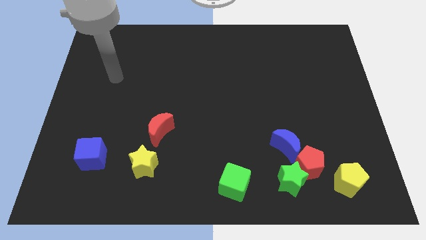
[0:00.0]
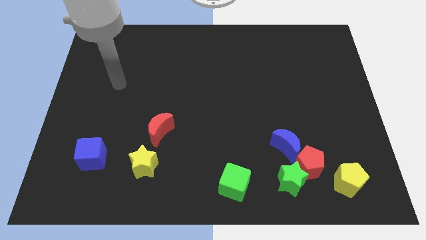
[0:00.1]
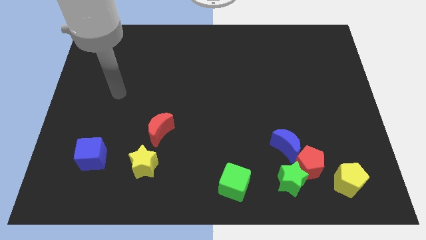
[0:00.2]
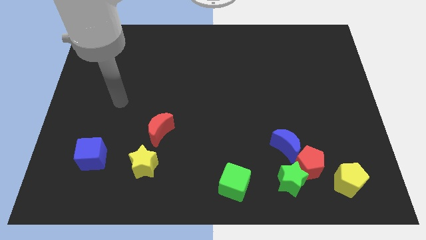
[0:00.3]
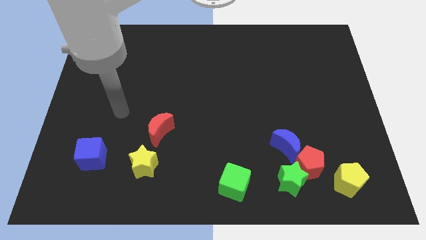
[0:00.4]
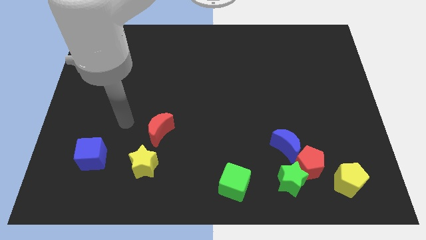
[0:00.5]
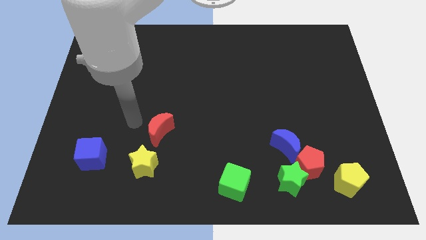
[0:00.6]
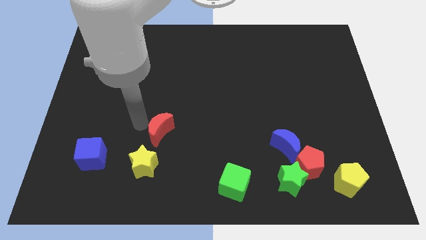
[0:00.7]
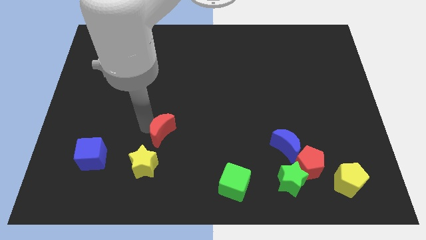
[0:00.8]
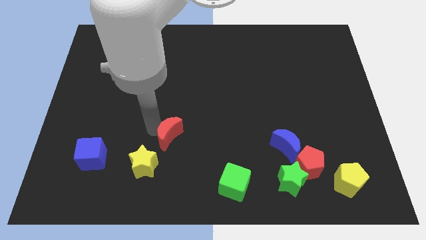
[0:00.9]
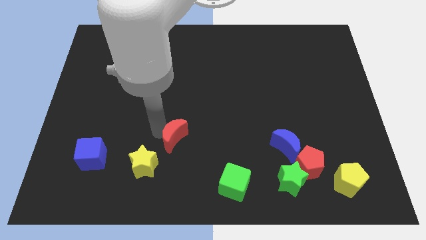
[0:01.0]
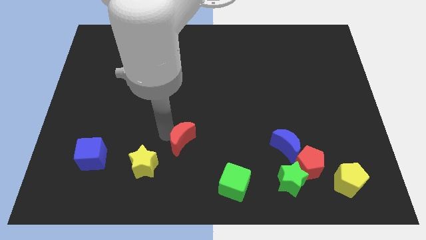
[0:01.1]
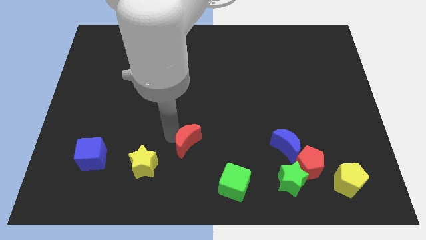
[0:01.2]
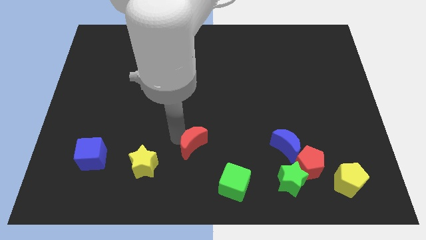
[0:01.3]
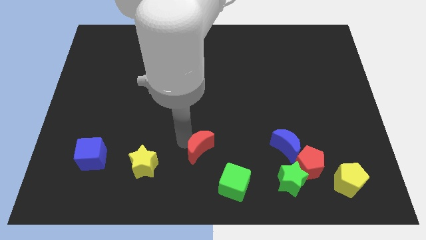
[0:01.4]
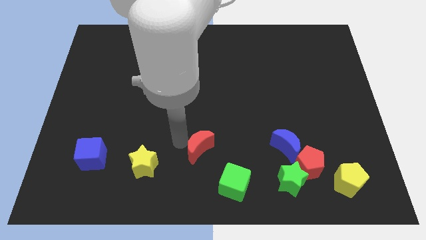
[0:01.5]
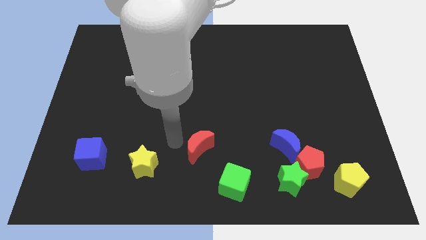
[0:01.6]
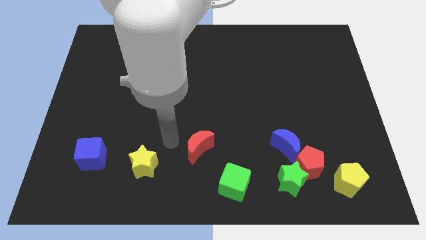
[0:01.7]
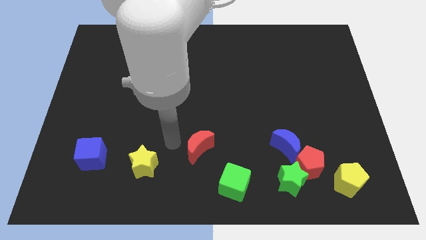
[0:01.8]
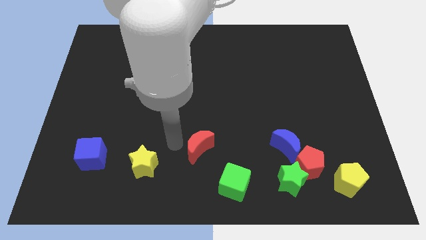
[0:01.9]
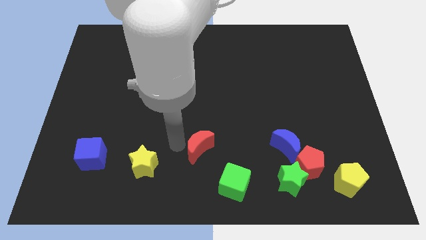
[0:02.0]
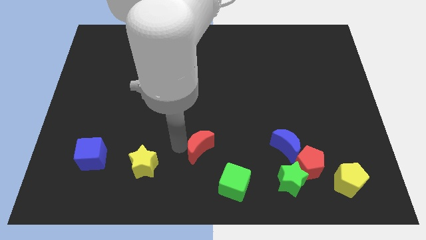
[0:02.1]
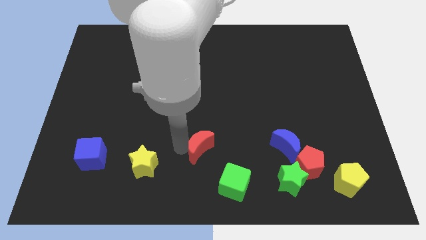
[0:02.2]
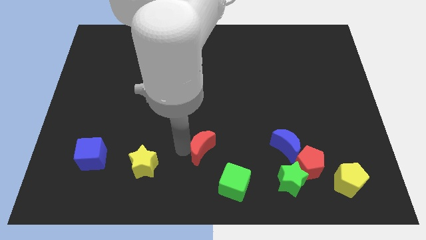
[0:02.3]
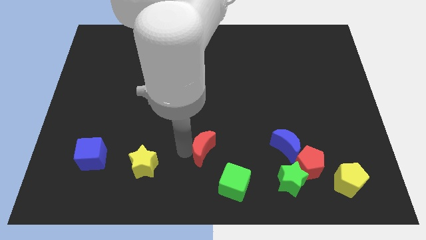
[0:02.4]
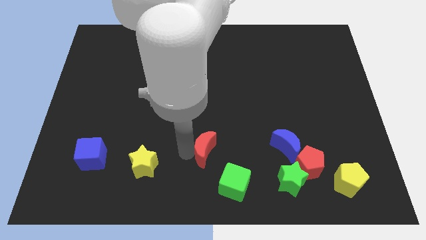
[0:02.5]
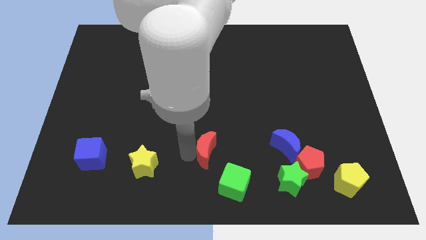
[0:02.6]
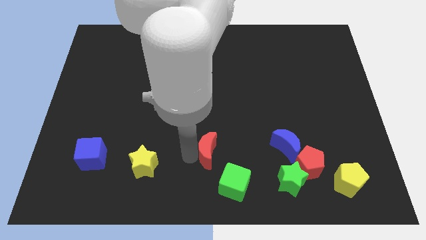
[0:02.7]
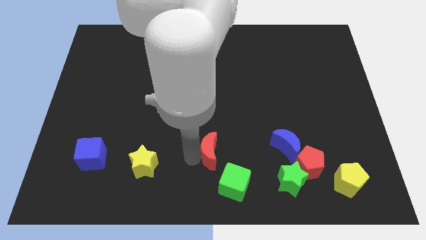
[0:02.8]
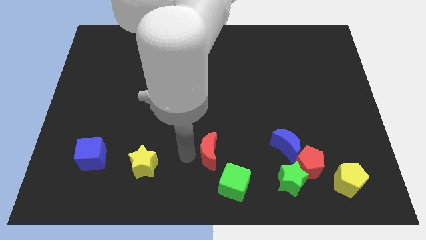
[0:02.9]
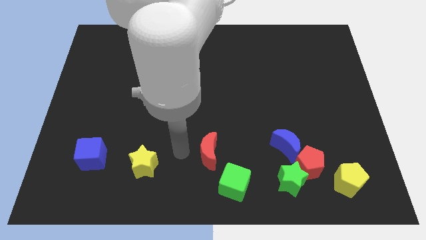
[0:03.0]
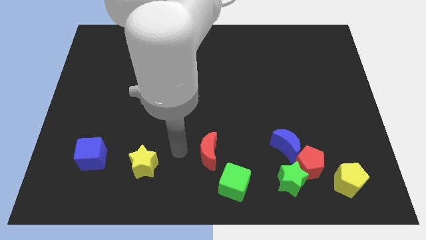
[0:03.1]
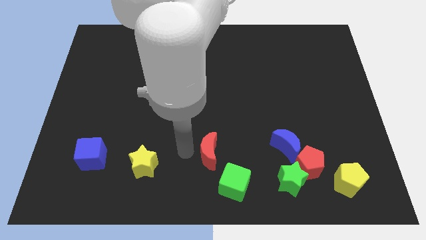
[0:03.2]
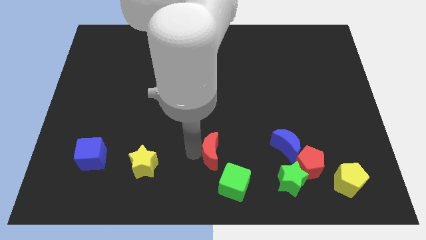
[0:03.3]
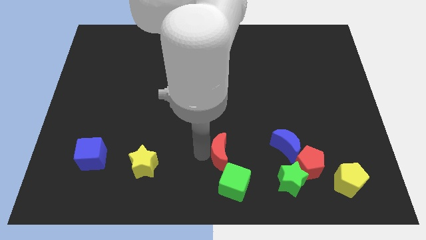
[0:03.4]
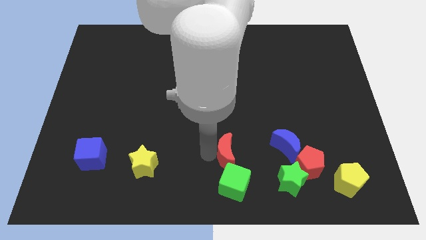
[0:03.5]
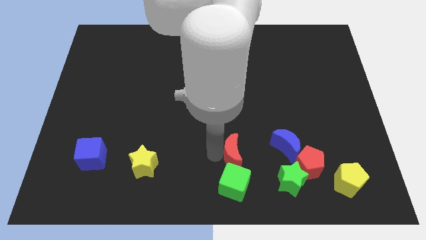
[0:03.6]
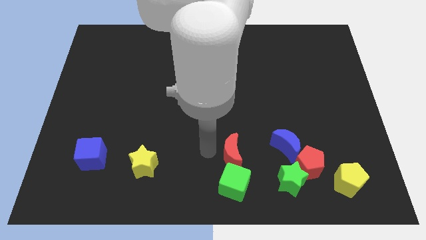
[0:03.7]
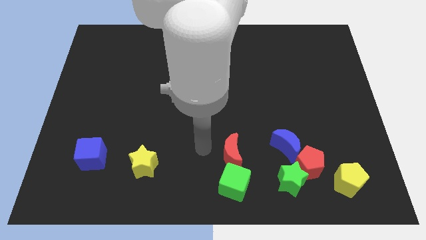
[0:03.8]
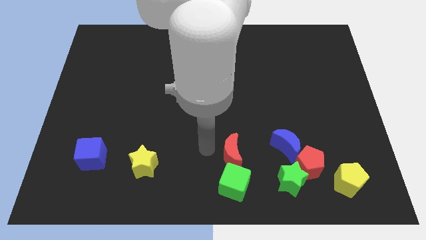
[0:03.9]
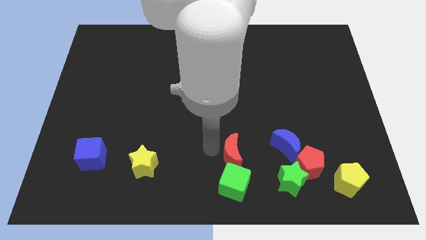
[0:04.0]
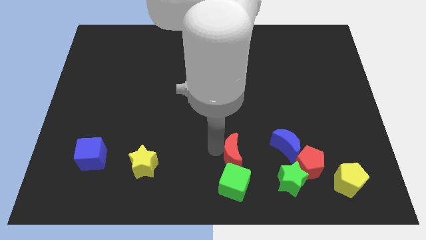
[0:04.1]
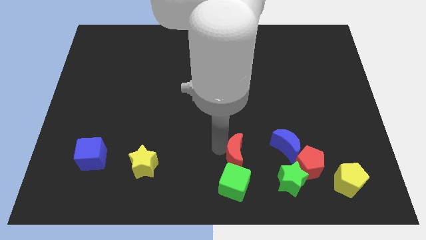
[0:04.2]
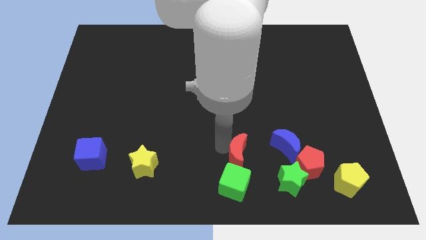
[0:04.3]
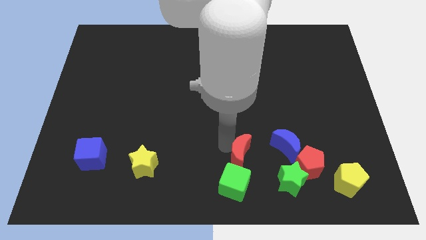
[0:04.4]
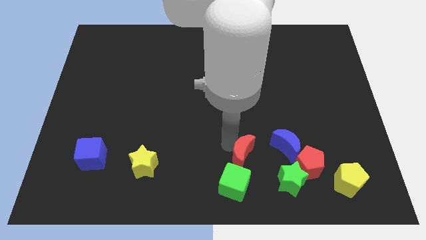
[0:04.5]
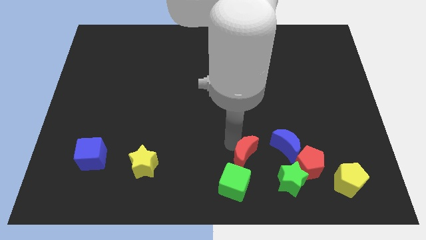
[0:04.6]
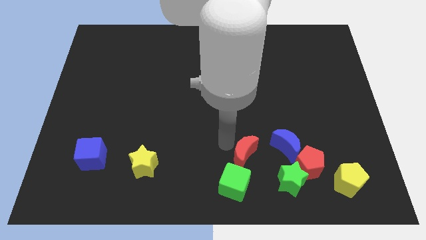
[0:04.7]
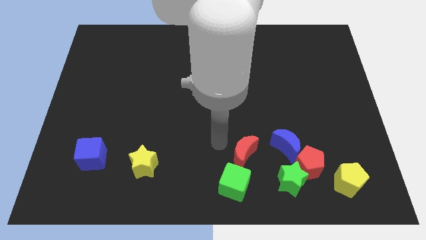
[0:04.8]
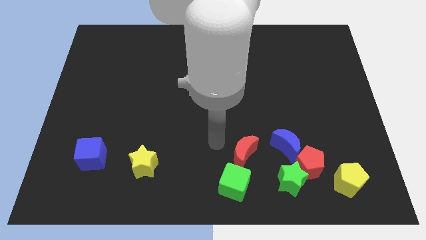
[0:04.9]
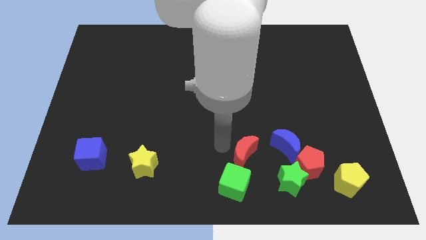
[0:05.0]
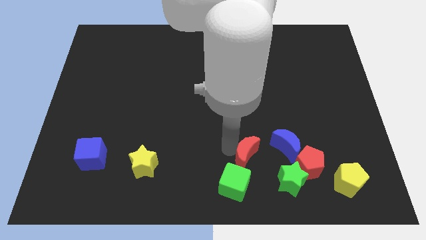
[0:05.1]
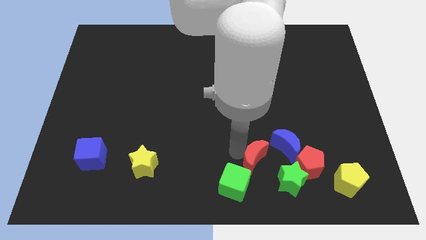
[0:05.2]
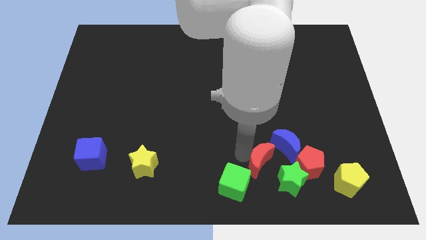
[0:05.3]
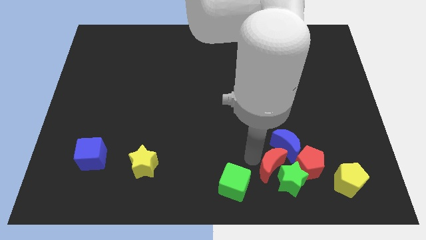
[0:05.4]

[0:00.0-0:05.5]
move the red moon towards the green star

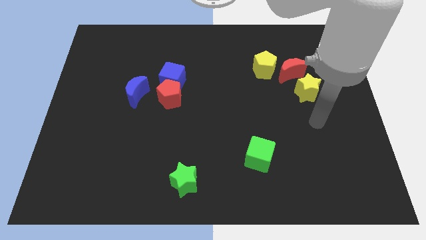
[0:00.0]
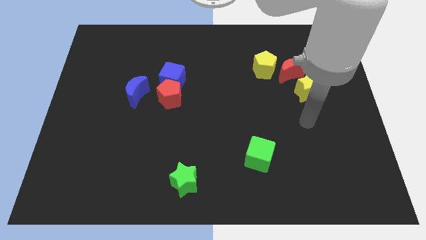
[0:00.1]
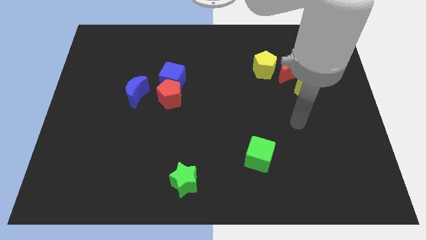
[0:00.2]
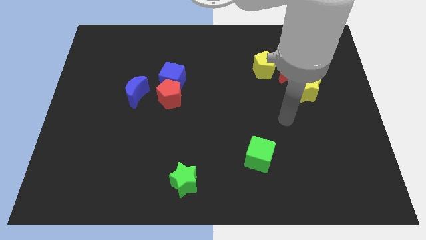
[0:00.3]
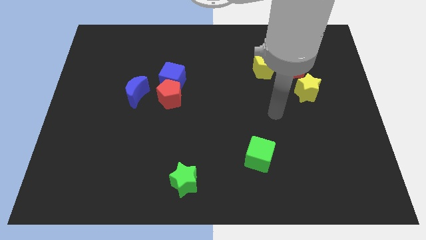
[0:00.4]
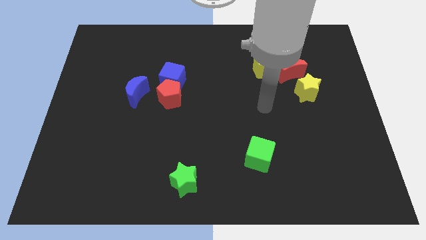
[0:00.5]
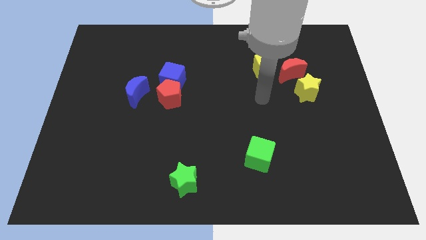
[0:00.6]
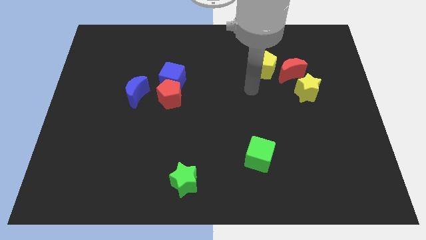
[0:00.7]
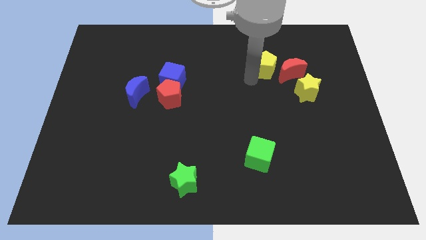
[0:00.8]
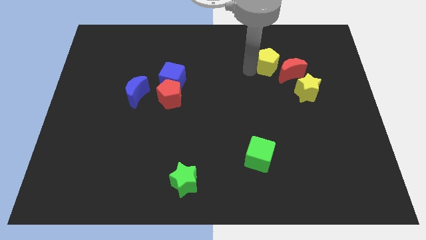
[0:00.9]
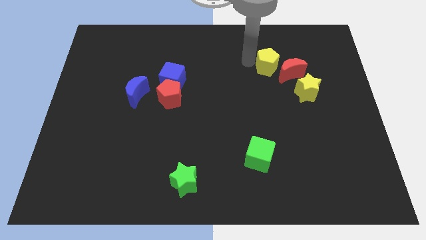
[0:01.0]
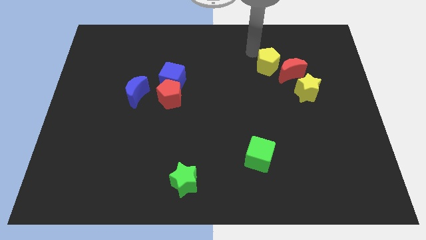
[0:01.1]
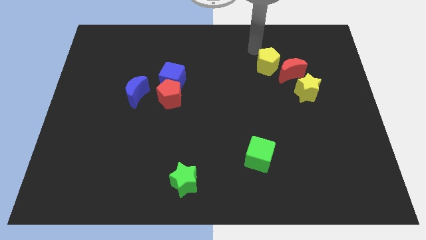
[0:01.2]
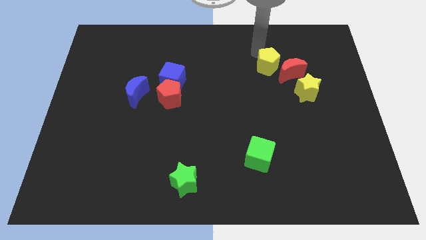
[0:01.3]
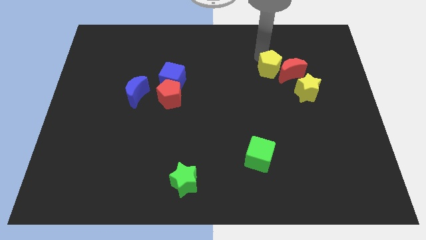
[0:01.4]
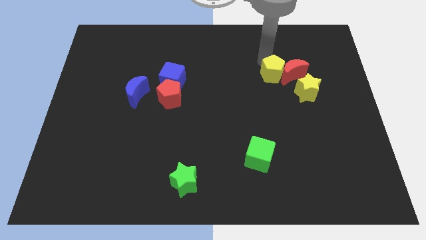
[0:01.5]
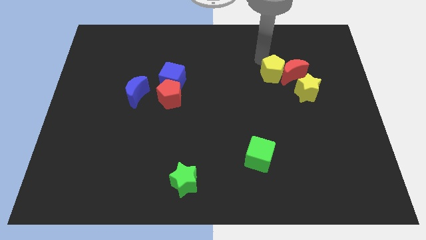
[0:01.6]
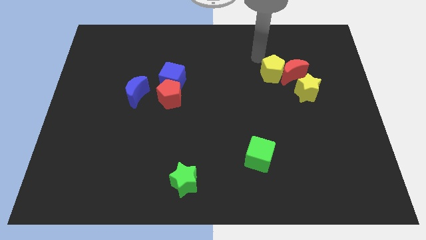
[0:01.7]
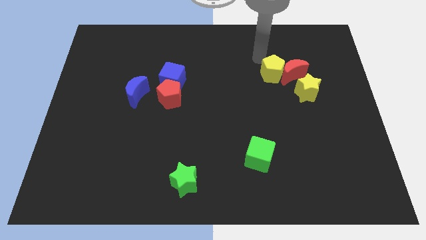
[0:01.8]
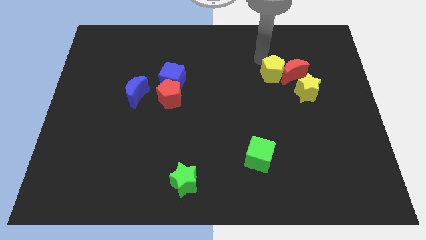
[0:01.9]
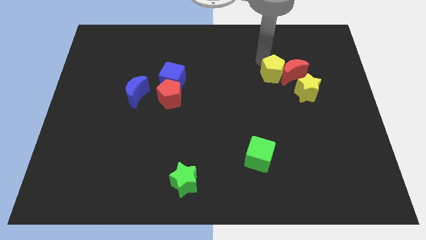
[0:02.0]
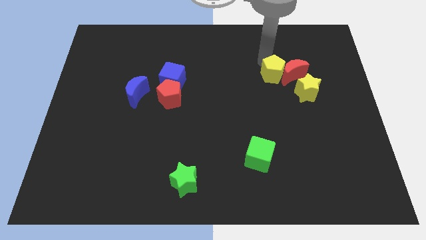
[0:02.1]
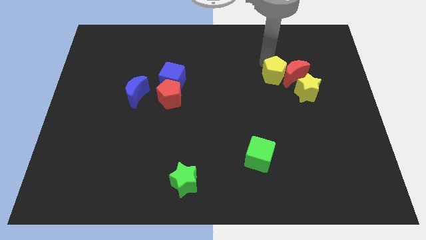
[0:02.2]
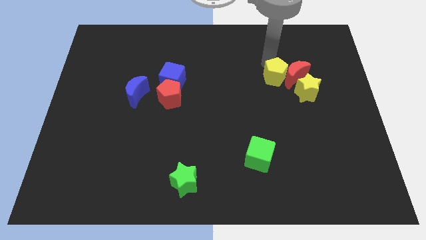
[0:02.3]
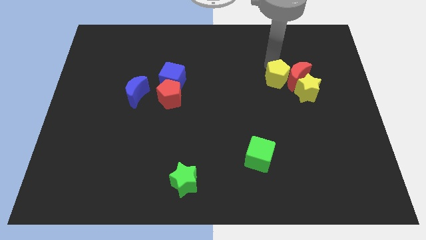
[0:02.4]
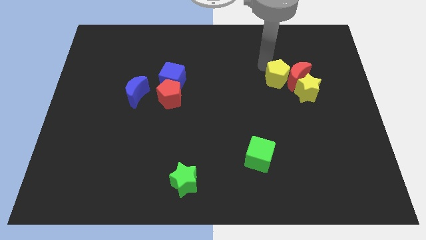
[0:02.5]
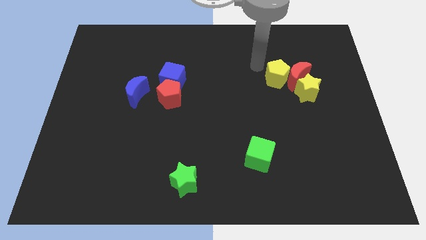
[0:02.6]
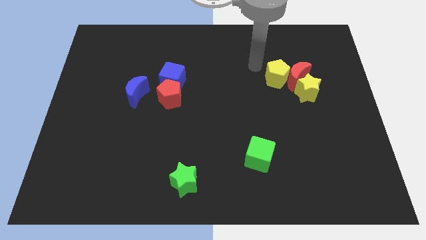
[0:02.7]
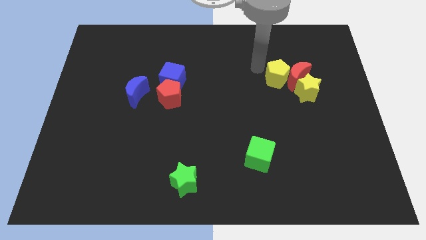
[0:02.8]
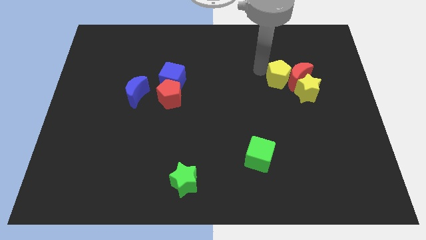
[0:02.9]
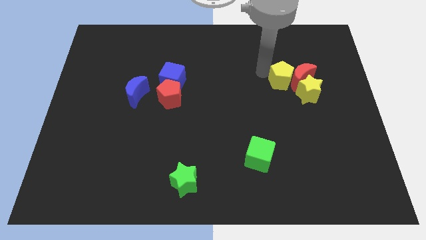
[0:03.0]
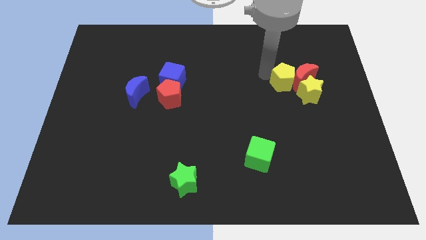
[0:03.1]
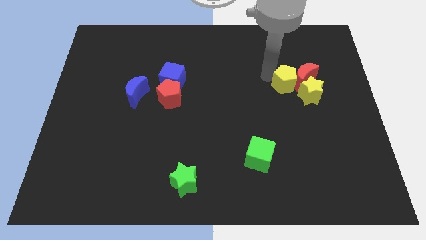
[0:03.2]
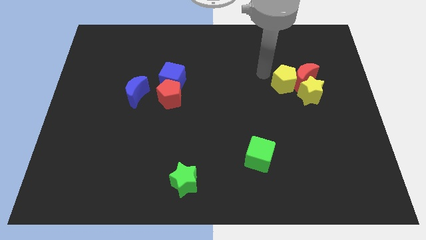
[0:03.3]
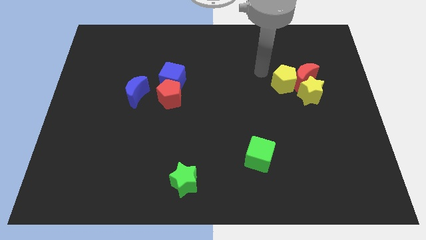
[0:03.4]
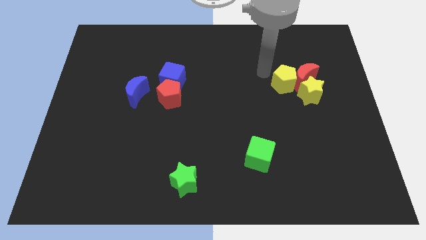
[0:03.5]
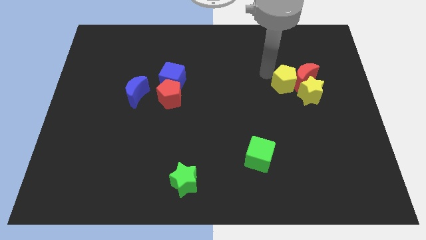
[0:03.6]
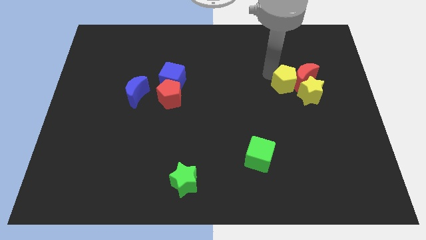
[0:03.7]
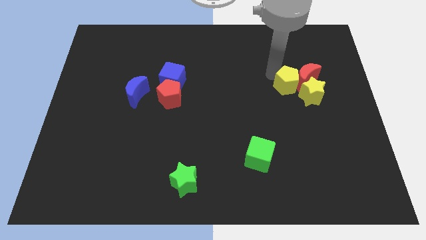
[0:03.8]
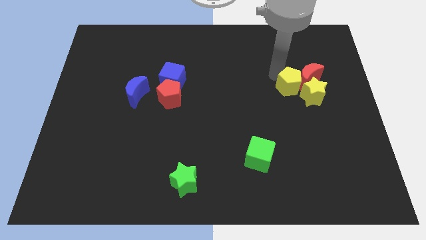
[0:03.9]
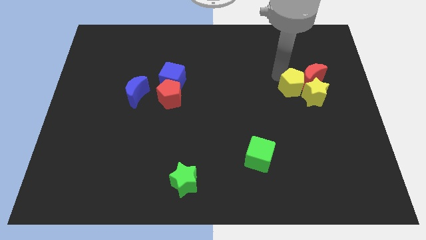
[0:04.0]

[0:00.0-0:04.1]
slide the yellow pentagon to the yellow star
